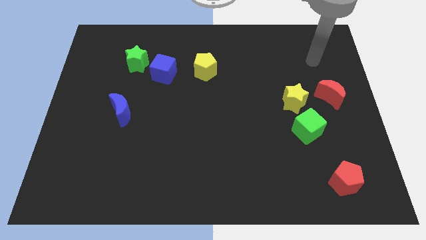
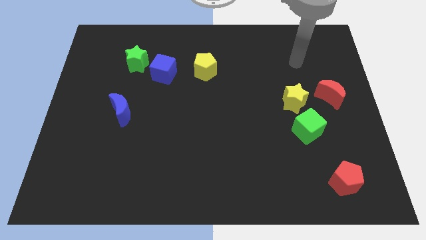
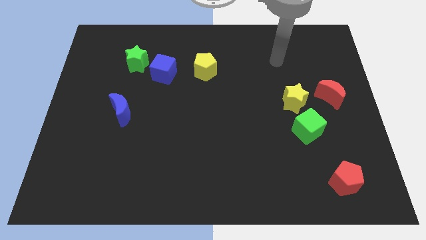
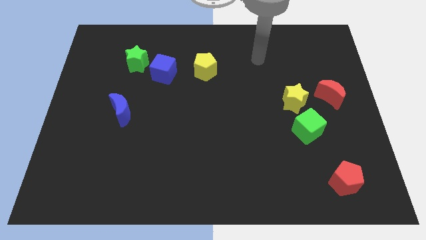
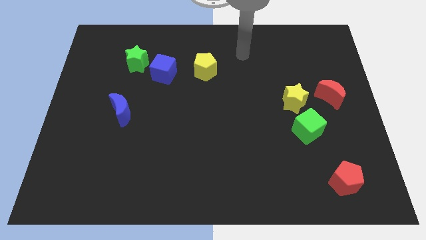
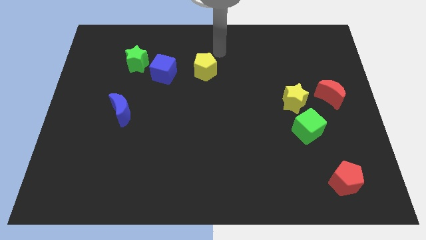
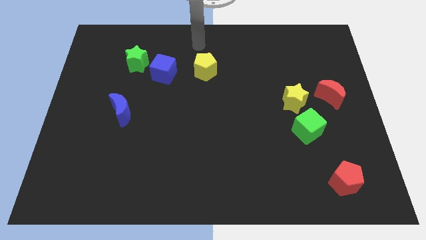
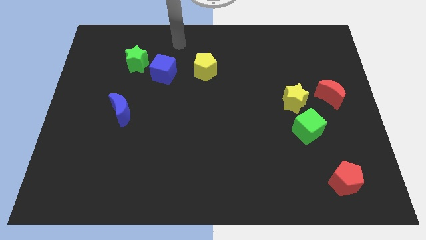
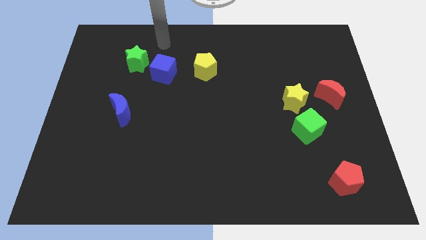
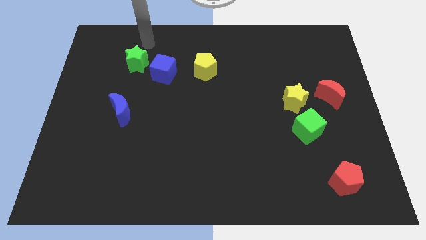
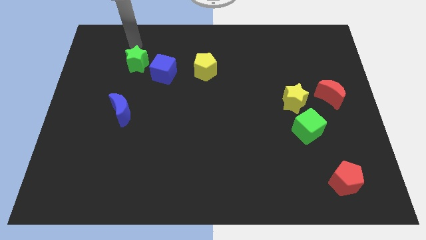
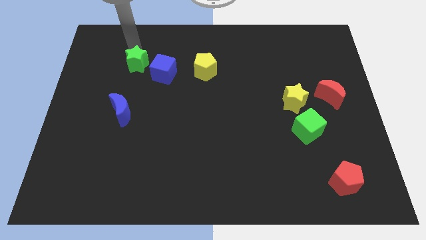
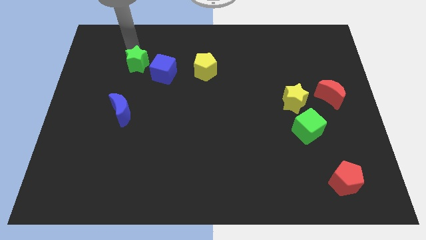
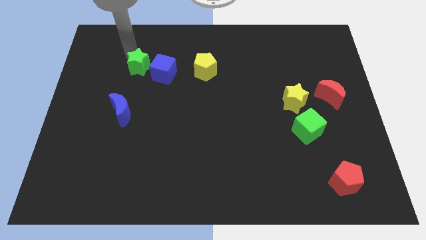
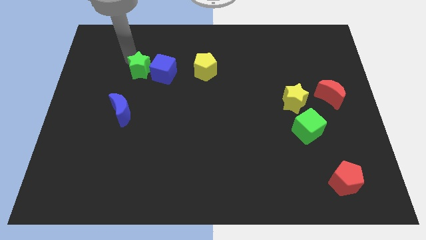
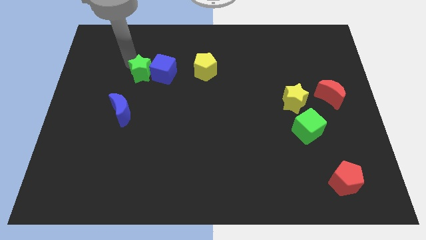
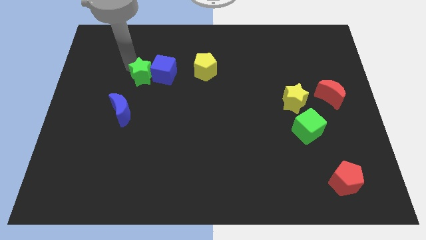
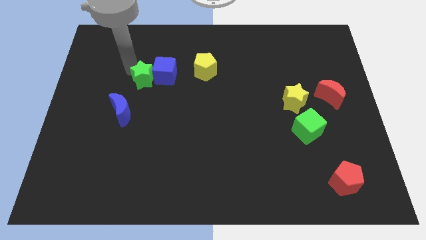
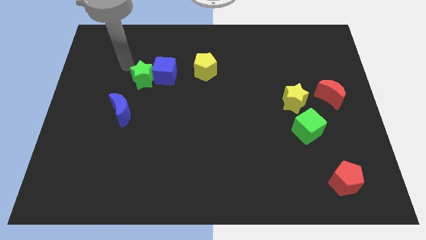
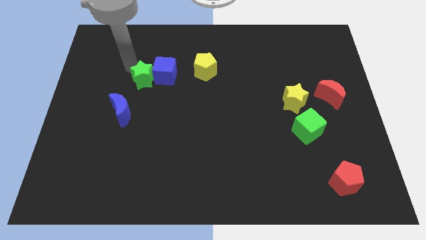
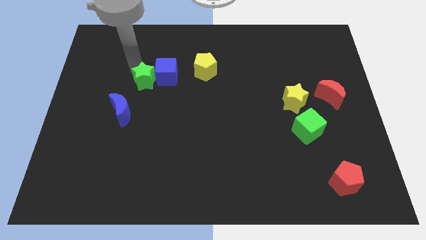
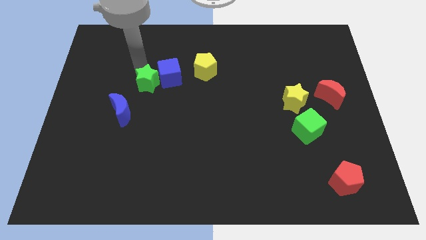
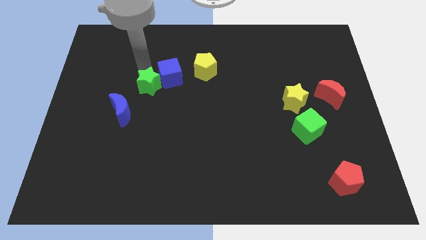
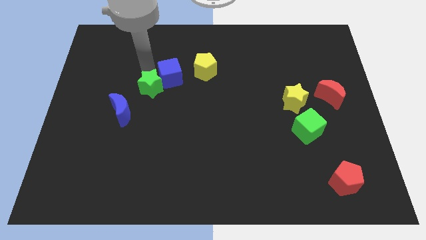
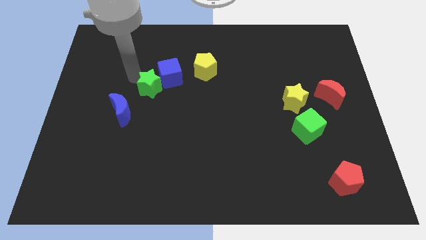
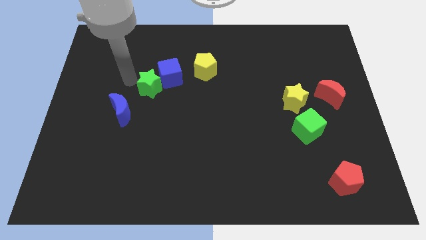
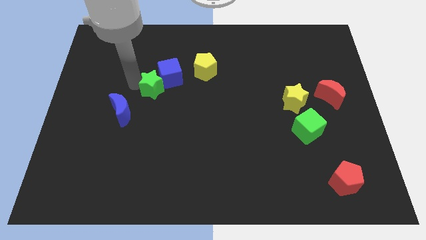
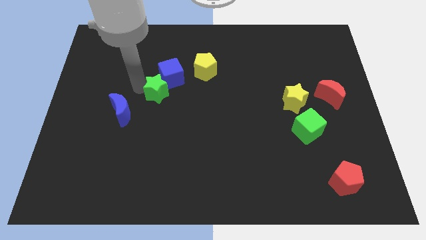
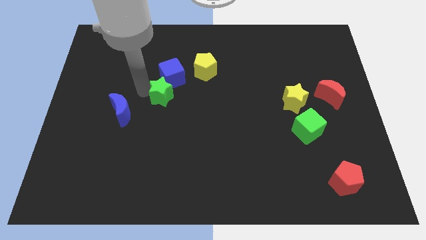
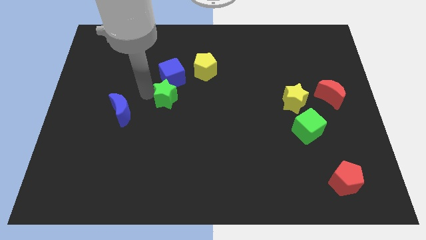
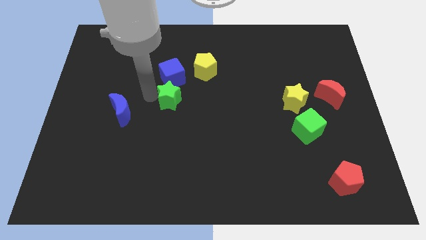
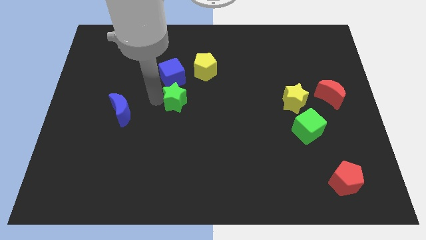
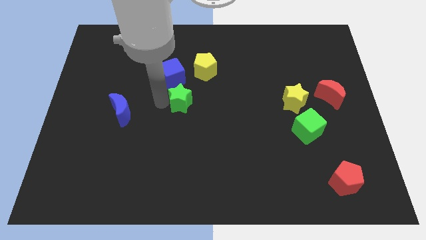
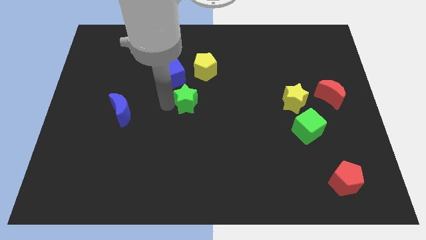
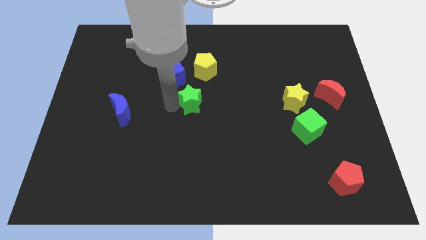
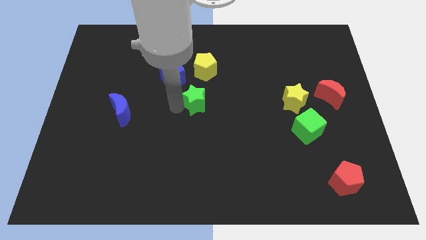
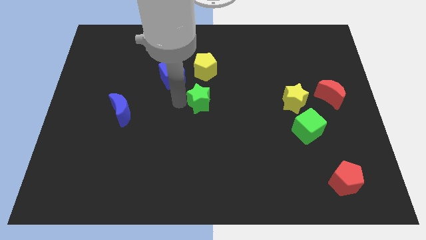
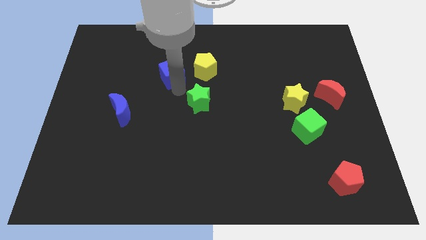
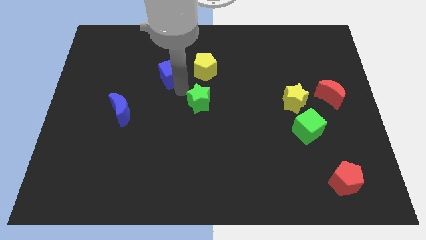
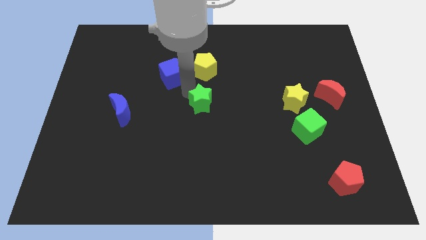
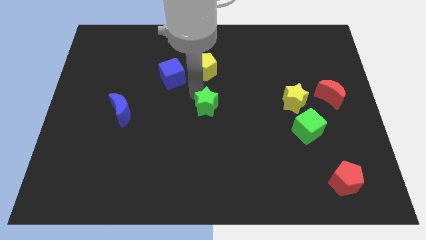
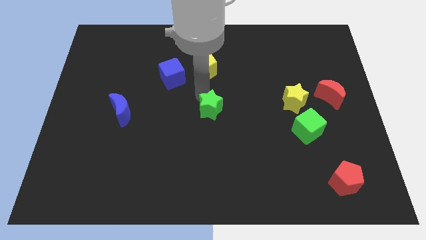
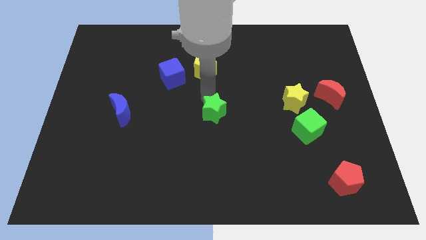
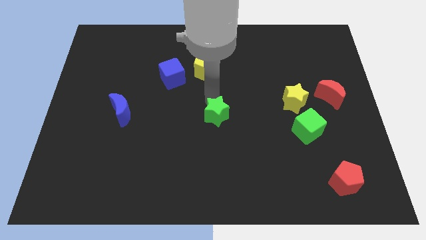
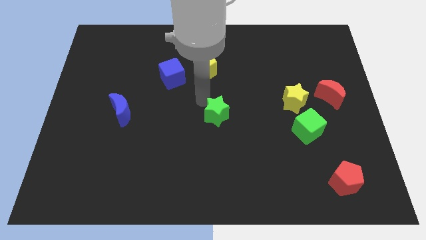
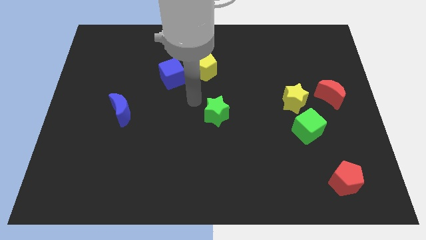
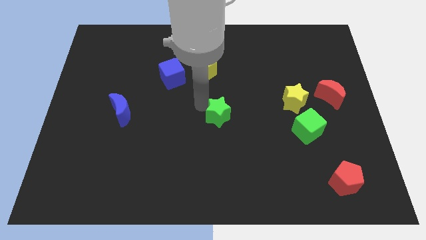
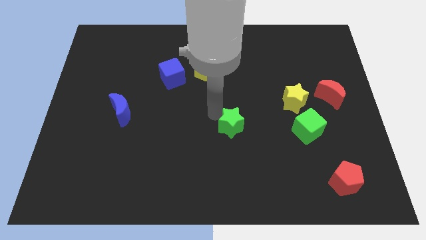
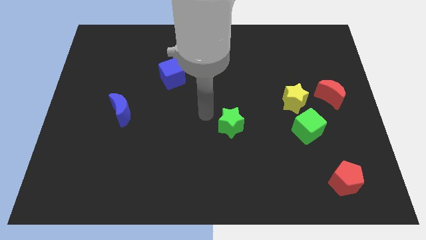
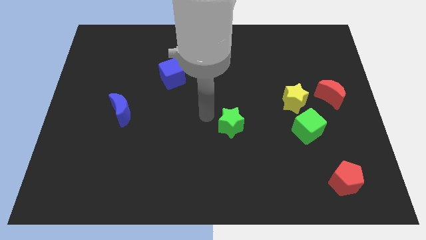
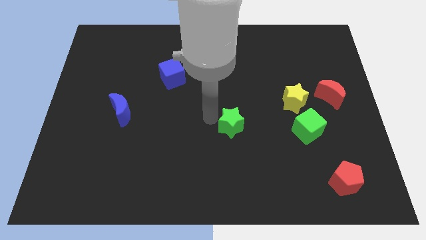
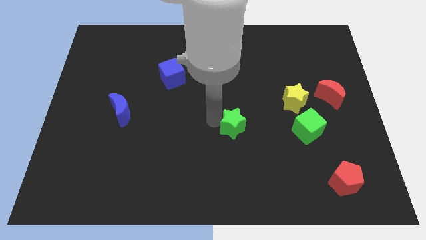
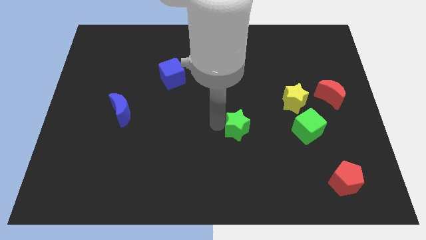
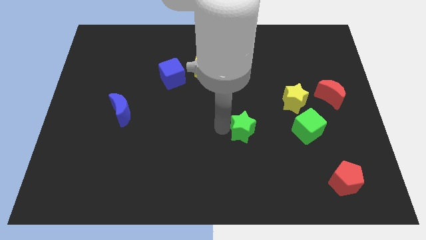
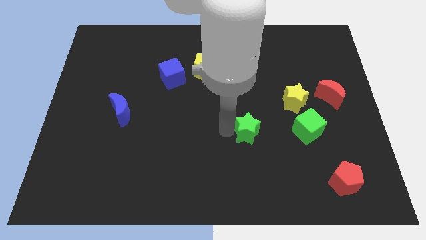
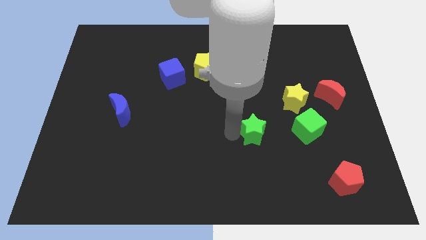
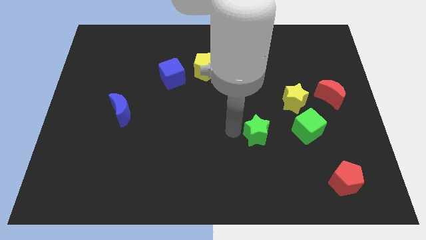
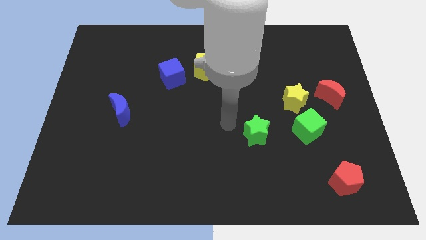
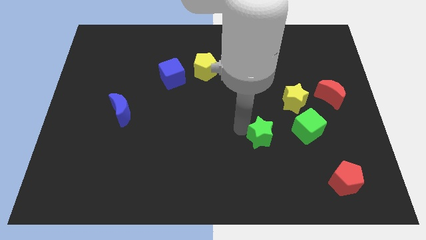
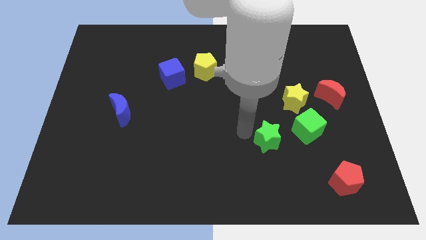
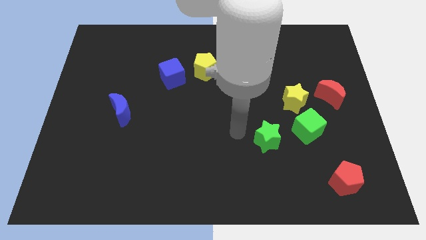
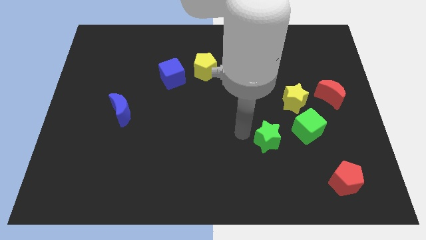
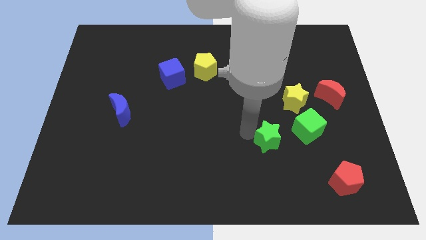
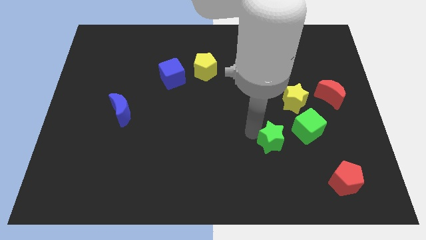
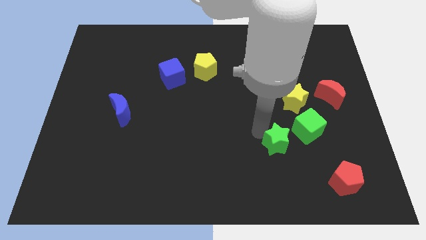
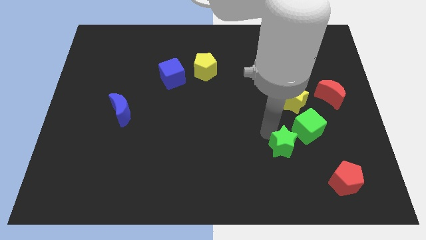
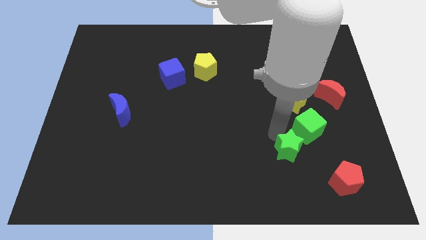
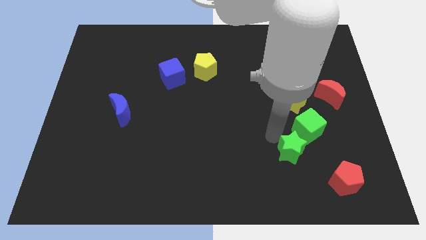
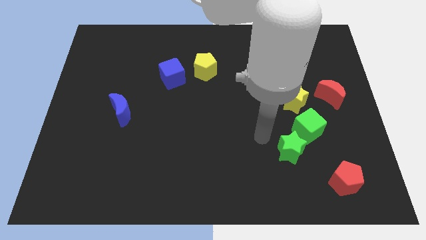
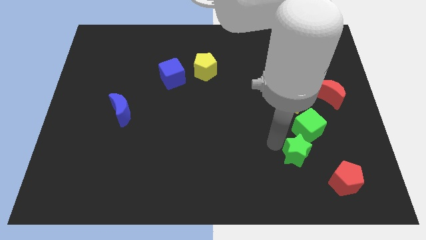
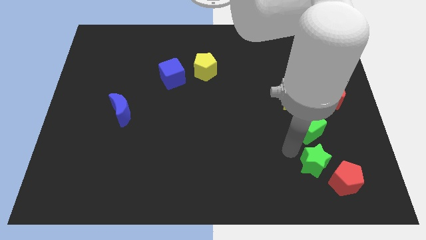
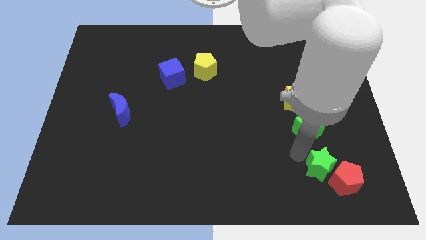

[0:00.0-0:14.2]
push the green star to the red pentagon

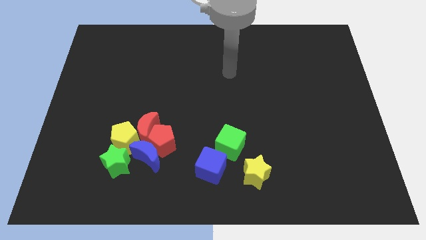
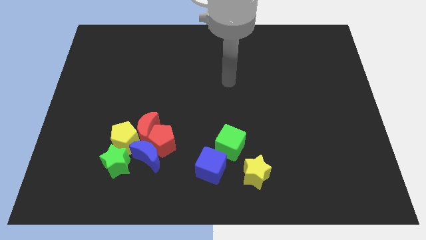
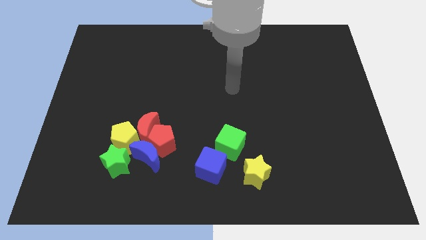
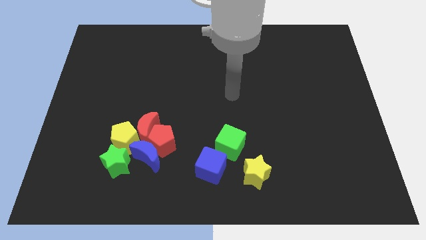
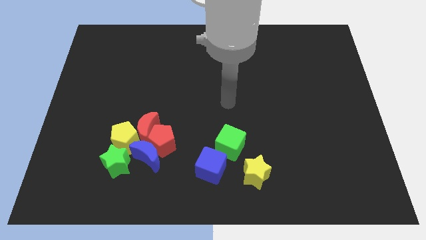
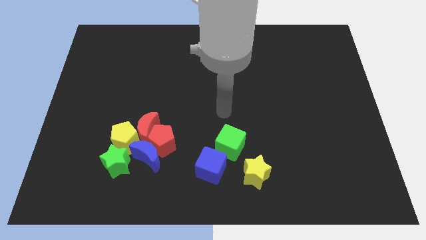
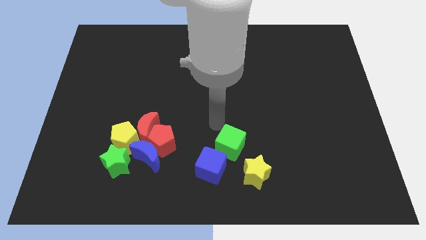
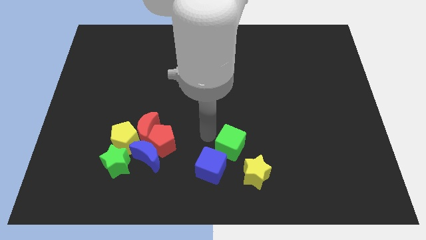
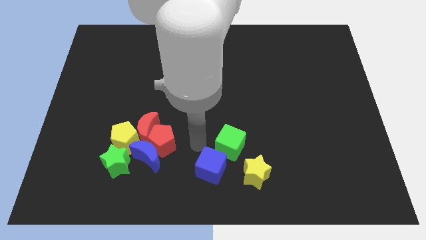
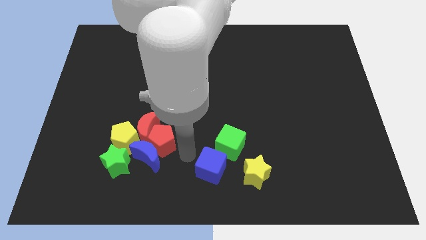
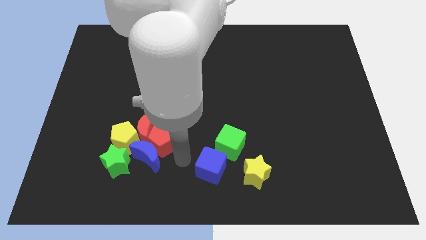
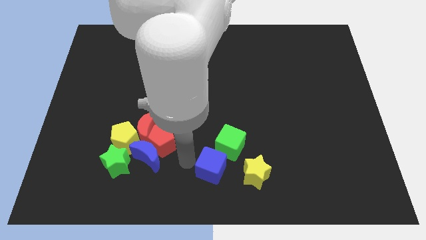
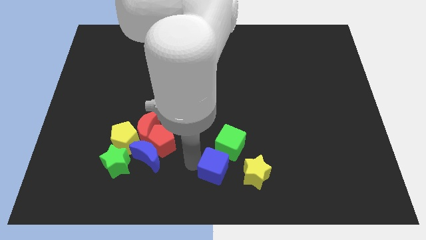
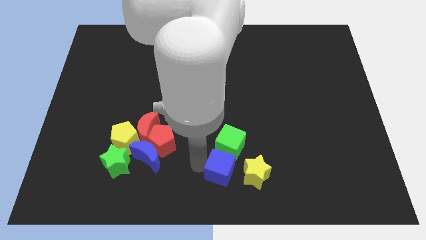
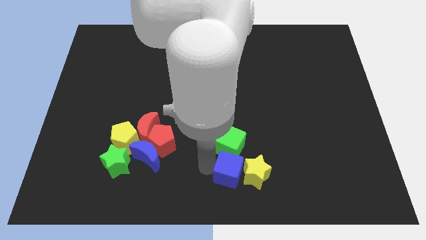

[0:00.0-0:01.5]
move the blue cube close to the yellow star
